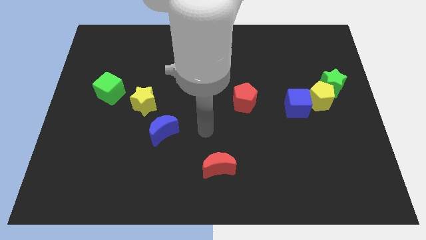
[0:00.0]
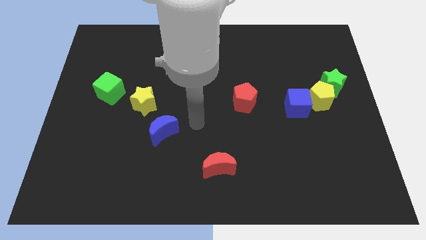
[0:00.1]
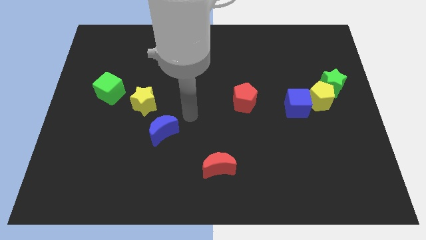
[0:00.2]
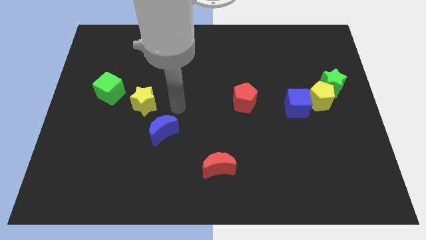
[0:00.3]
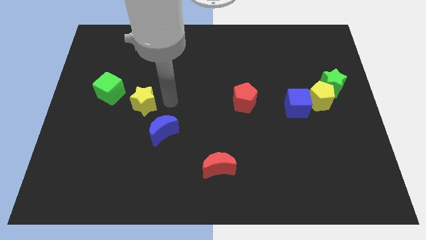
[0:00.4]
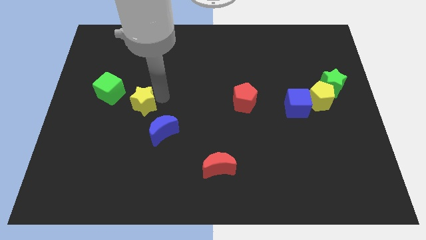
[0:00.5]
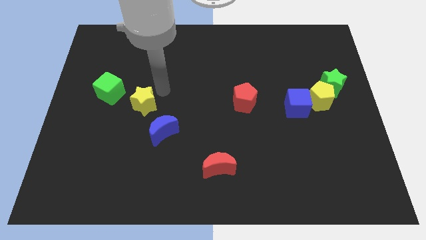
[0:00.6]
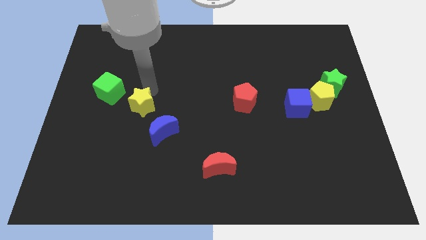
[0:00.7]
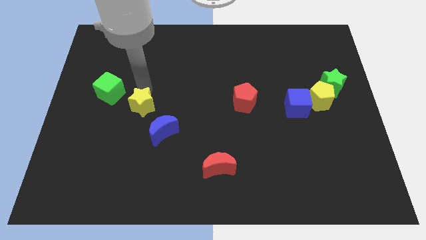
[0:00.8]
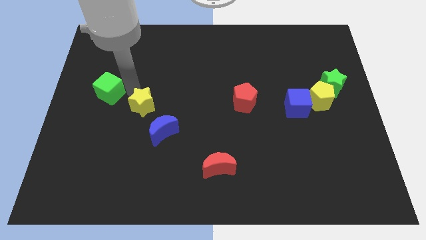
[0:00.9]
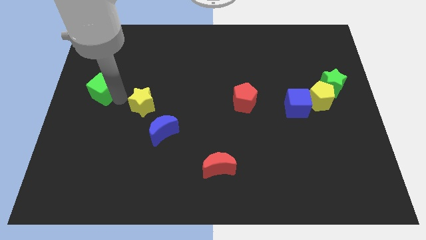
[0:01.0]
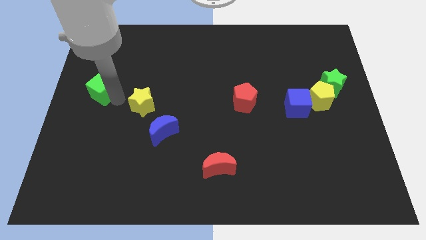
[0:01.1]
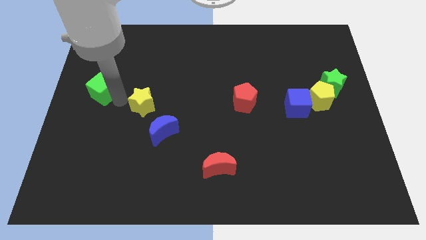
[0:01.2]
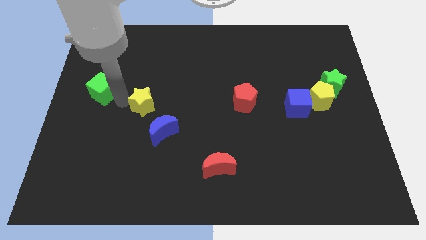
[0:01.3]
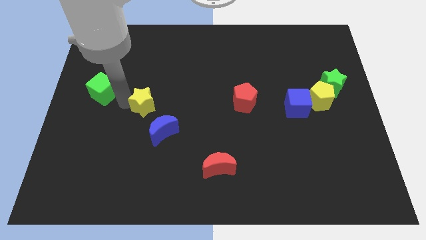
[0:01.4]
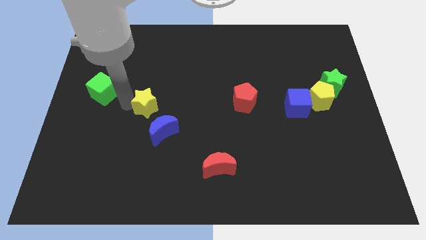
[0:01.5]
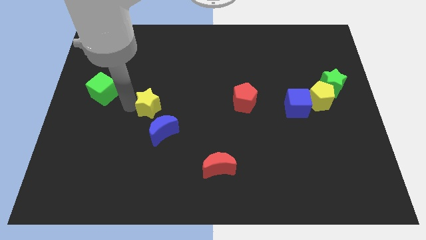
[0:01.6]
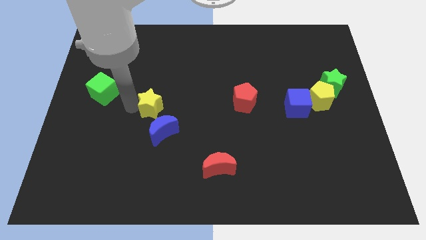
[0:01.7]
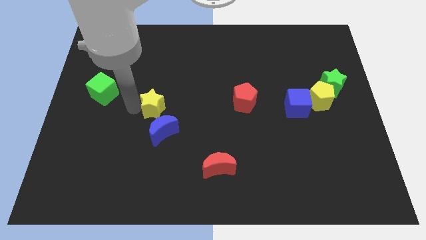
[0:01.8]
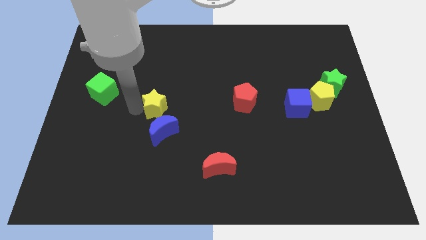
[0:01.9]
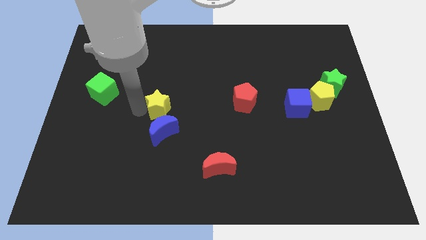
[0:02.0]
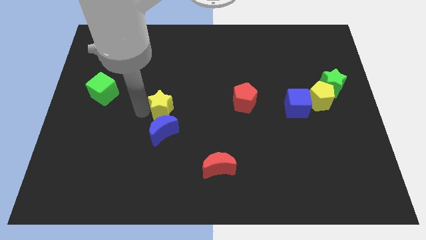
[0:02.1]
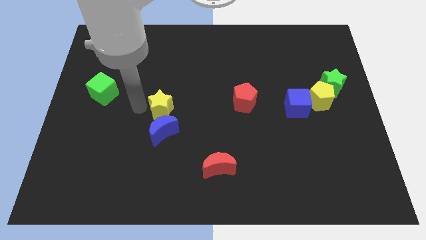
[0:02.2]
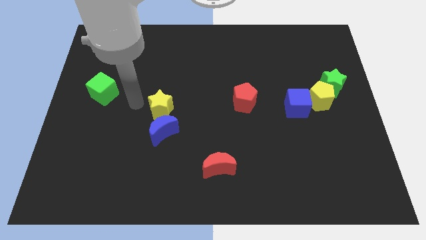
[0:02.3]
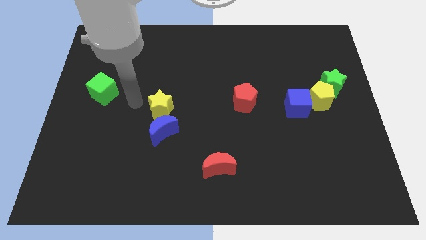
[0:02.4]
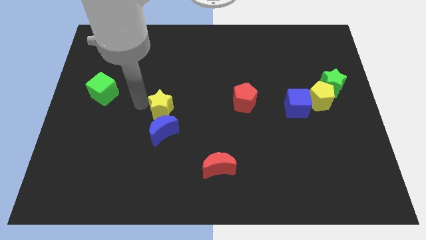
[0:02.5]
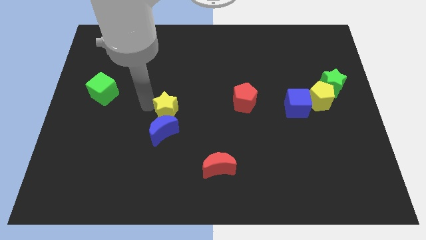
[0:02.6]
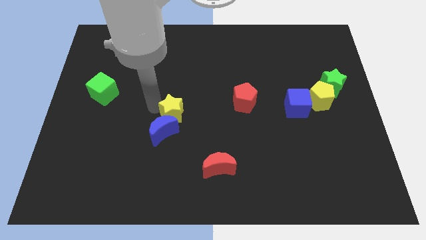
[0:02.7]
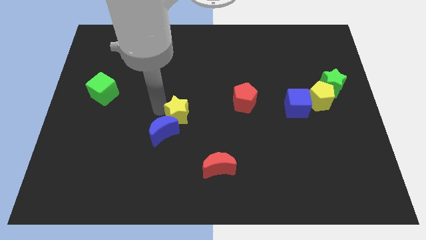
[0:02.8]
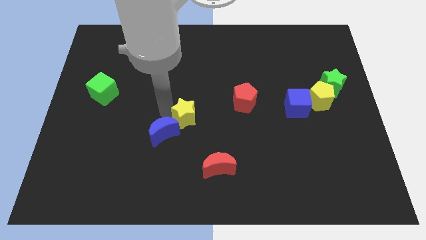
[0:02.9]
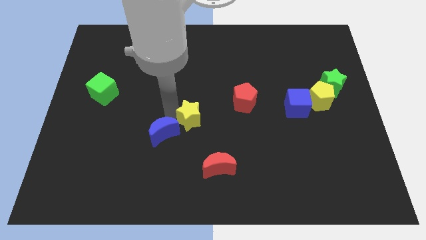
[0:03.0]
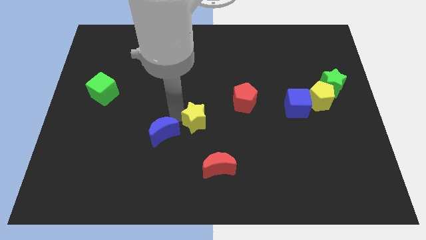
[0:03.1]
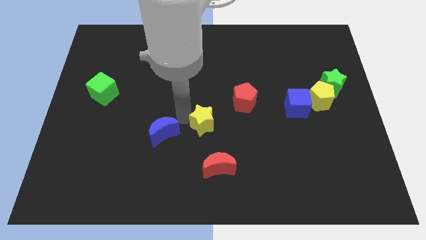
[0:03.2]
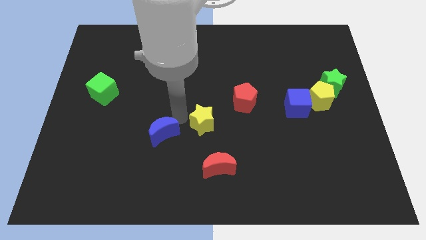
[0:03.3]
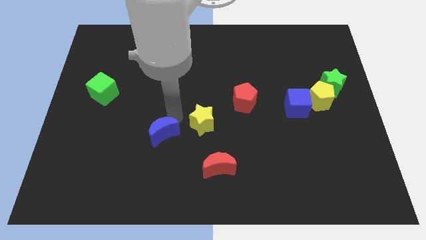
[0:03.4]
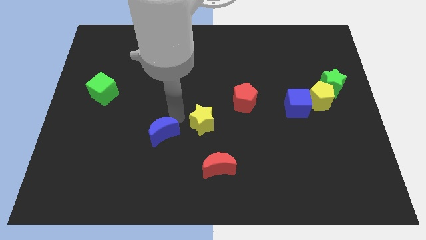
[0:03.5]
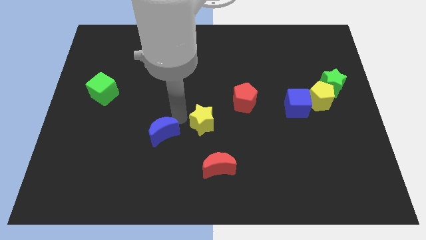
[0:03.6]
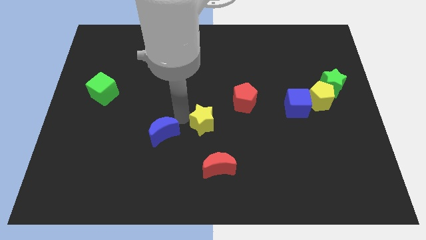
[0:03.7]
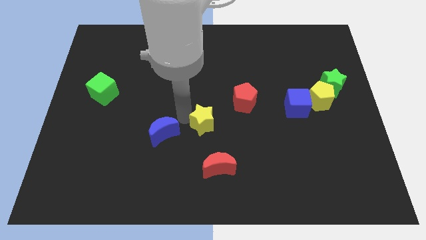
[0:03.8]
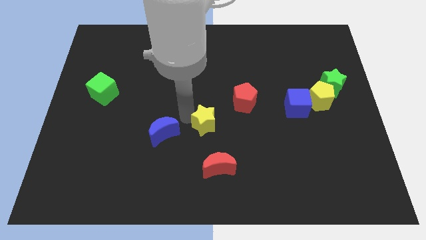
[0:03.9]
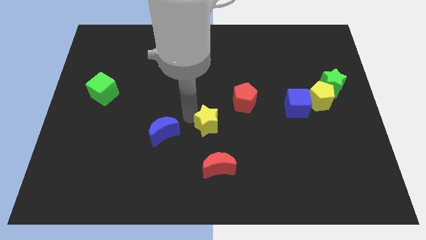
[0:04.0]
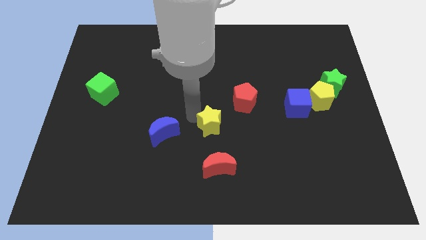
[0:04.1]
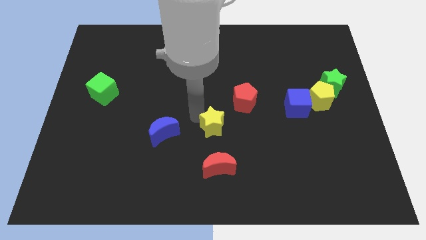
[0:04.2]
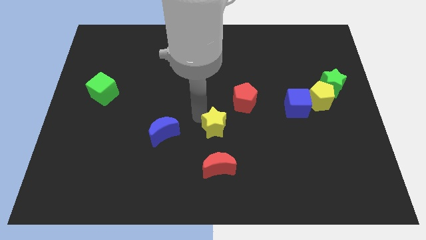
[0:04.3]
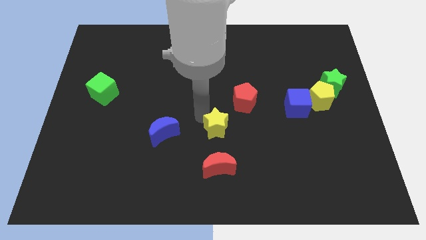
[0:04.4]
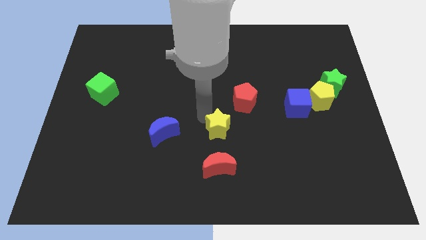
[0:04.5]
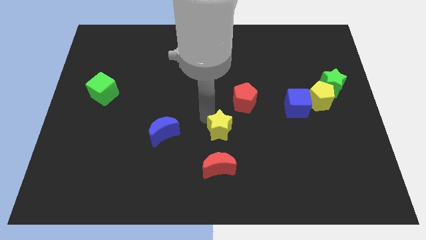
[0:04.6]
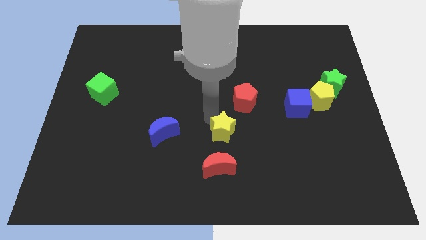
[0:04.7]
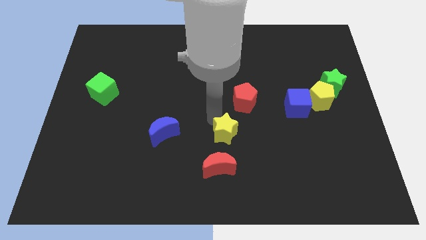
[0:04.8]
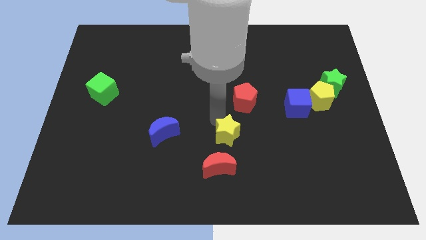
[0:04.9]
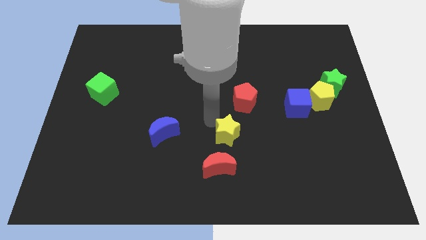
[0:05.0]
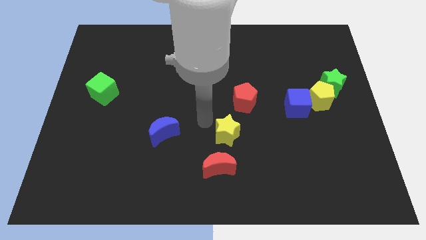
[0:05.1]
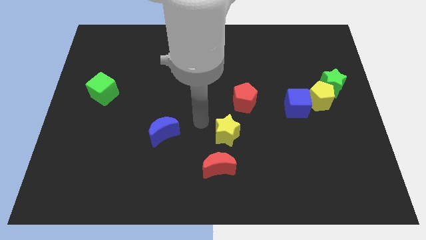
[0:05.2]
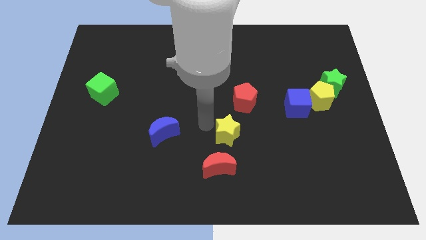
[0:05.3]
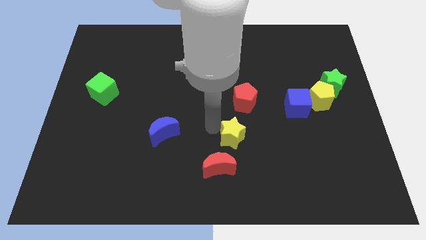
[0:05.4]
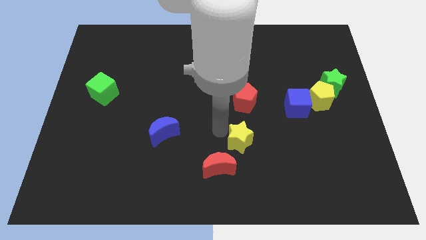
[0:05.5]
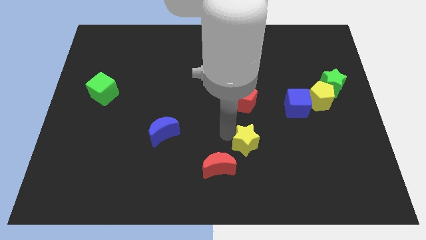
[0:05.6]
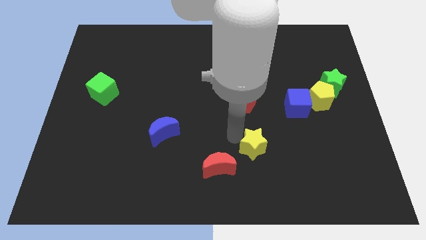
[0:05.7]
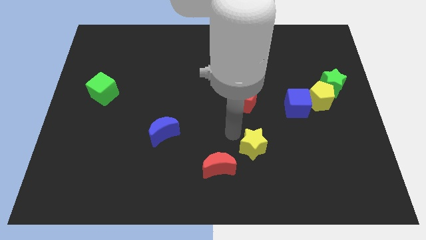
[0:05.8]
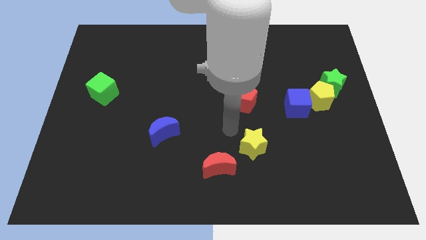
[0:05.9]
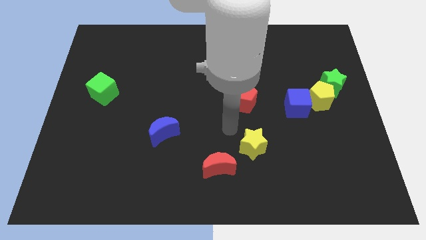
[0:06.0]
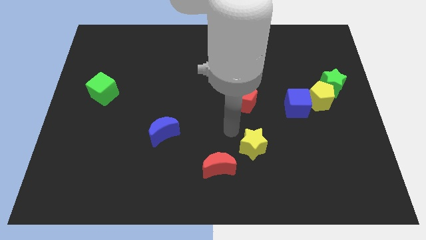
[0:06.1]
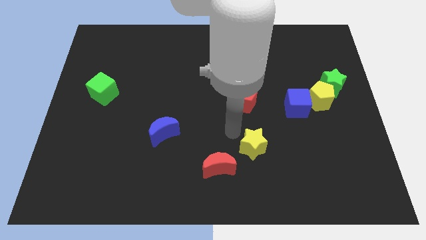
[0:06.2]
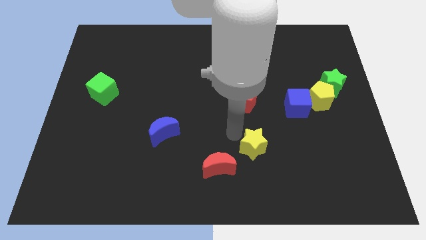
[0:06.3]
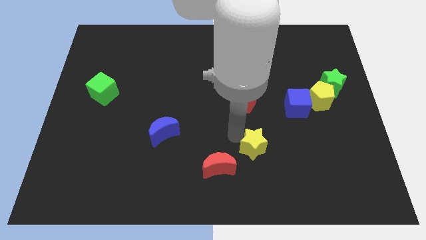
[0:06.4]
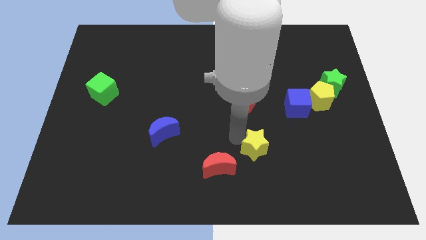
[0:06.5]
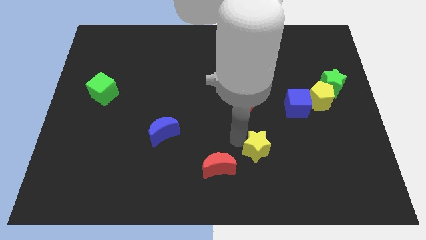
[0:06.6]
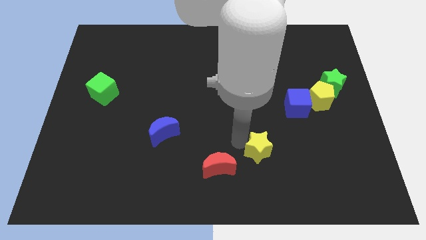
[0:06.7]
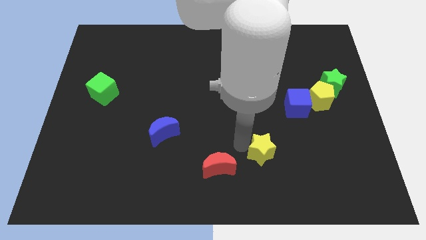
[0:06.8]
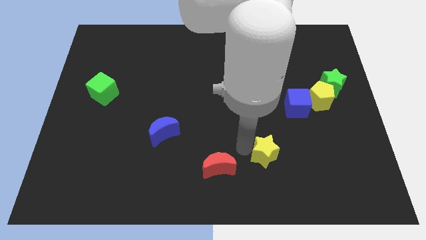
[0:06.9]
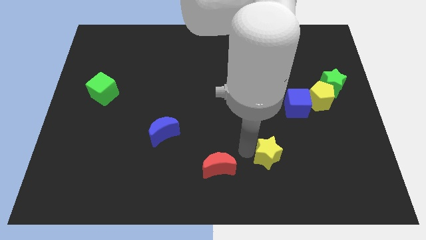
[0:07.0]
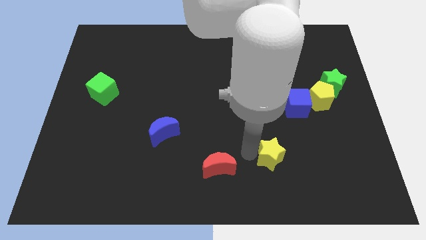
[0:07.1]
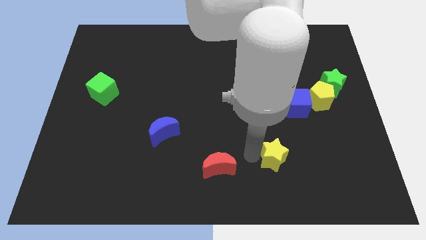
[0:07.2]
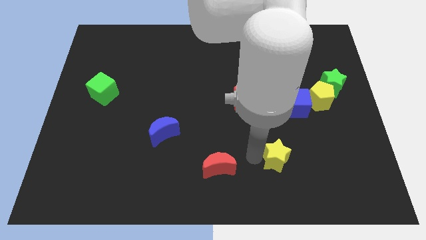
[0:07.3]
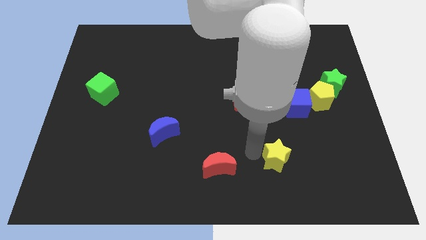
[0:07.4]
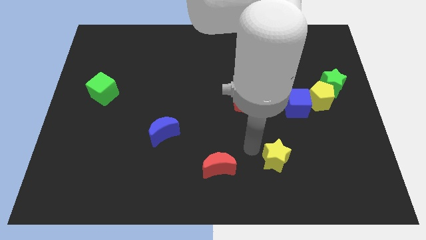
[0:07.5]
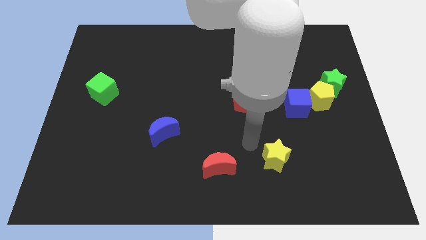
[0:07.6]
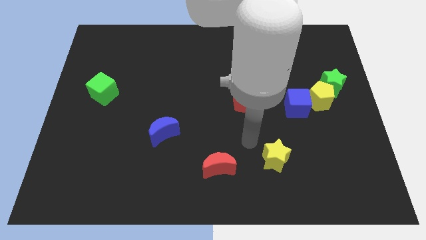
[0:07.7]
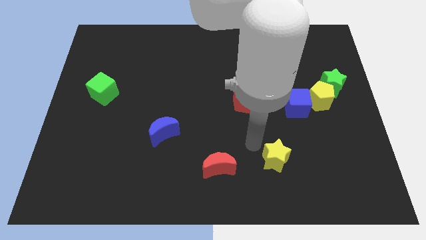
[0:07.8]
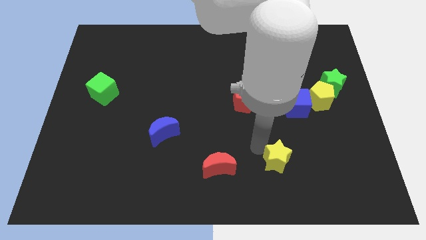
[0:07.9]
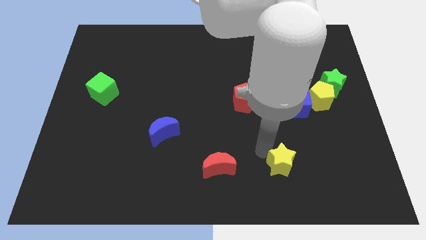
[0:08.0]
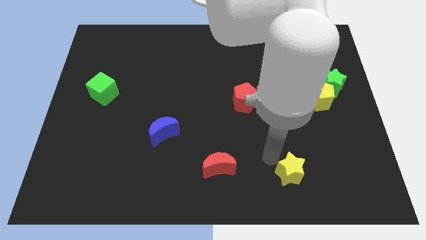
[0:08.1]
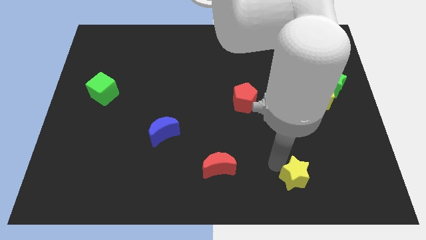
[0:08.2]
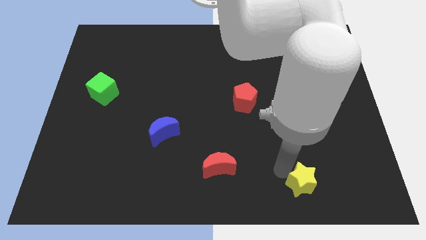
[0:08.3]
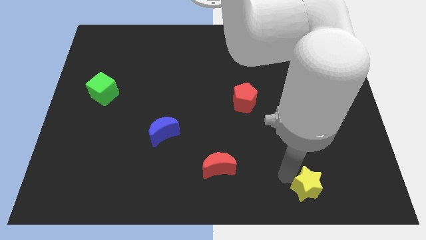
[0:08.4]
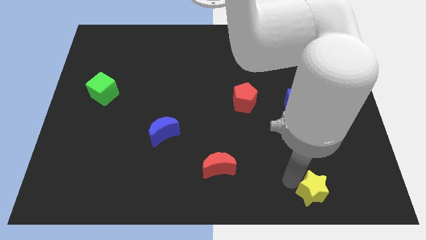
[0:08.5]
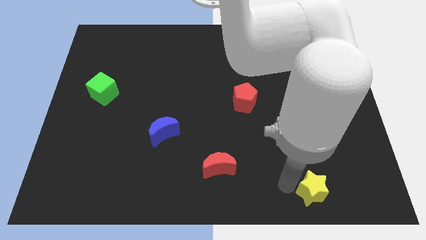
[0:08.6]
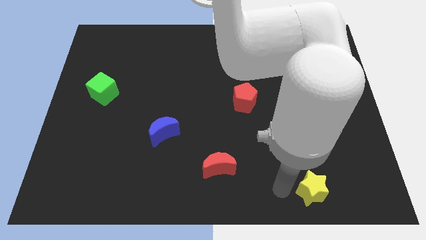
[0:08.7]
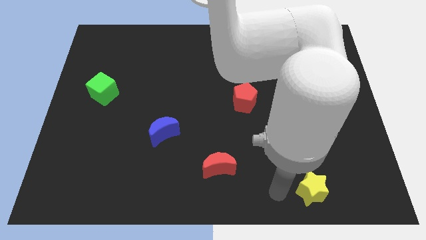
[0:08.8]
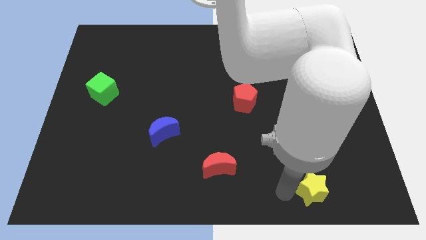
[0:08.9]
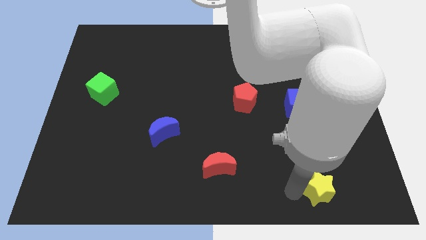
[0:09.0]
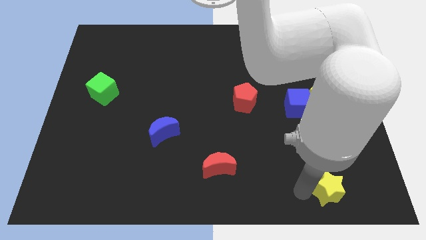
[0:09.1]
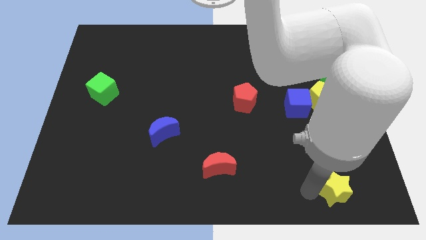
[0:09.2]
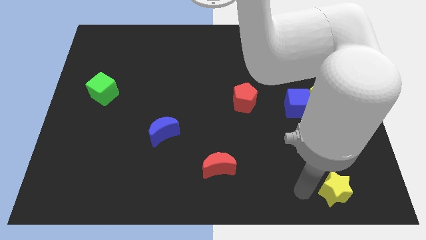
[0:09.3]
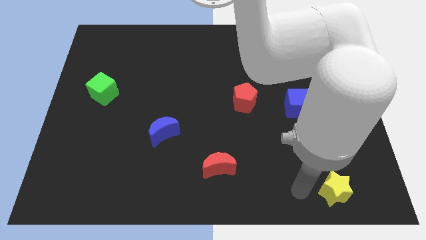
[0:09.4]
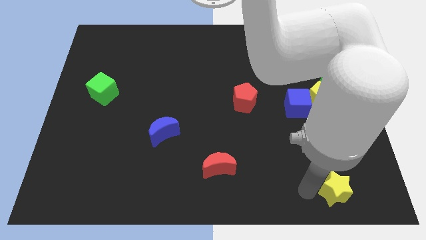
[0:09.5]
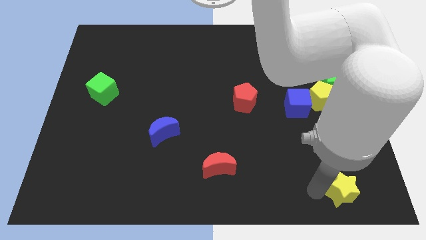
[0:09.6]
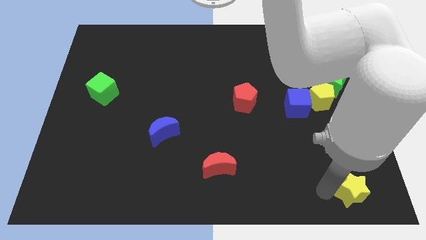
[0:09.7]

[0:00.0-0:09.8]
move the yellow star to the bottom right
